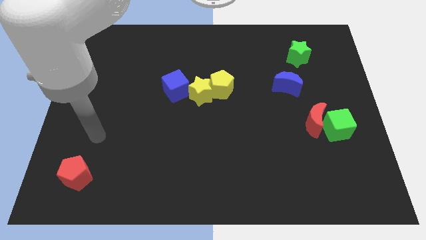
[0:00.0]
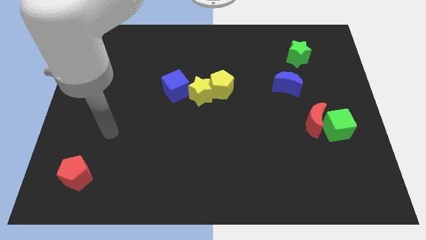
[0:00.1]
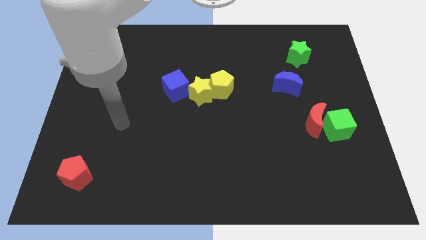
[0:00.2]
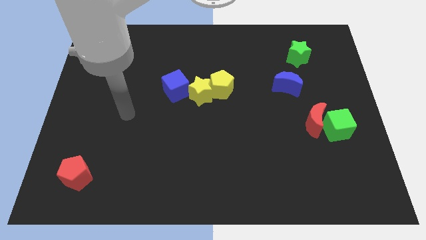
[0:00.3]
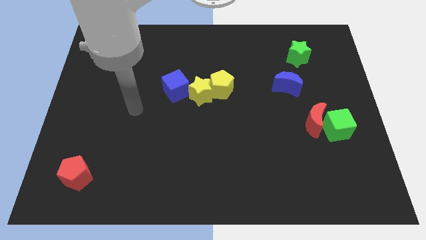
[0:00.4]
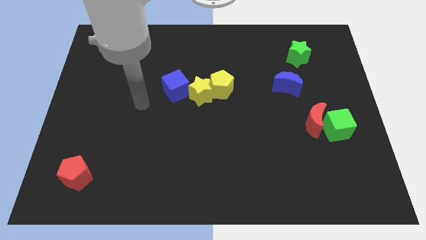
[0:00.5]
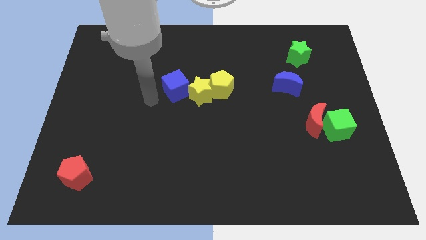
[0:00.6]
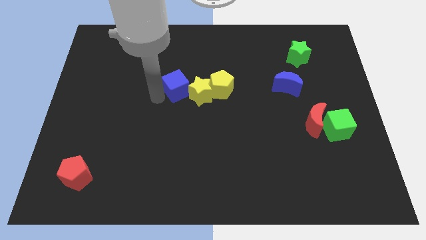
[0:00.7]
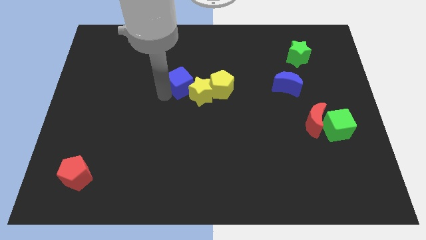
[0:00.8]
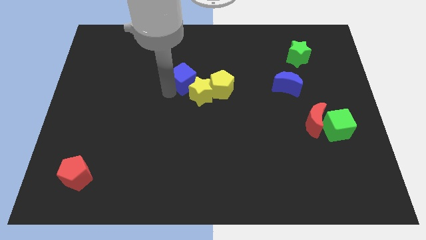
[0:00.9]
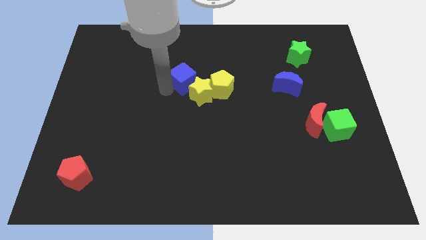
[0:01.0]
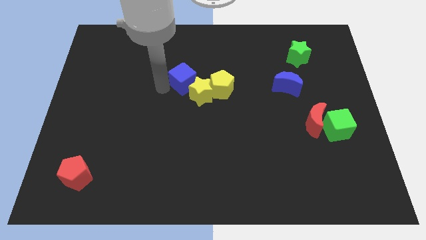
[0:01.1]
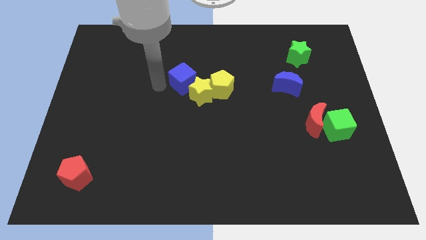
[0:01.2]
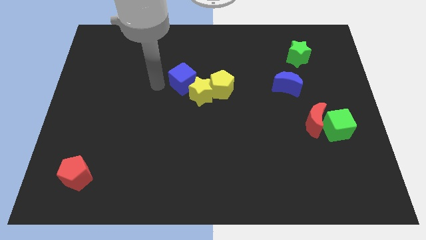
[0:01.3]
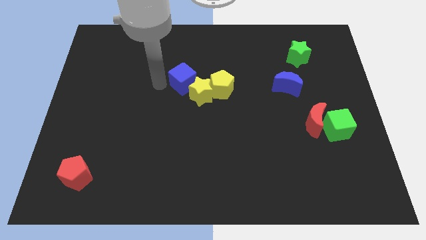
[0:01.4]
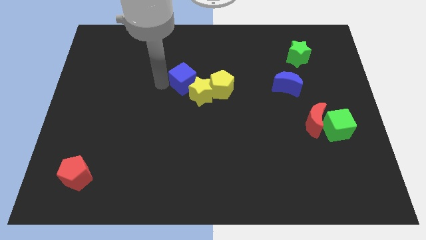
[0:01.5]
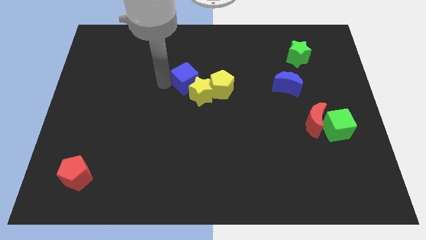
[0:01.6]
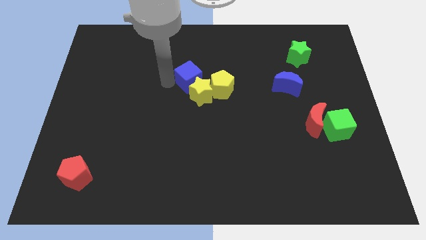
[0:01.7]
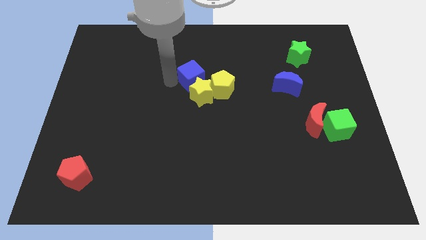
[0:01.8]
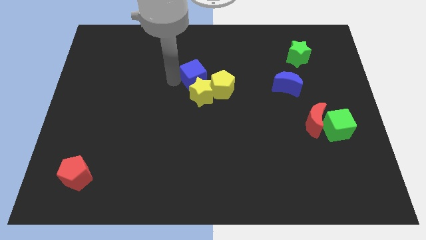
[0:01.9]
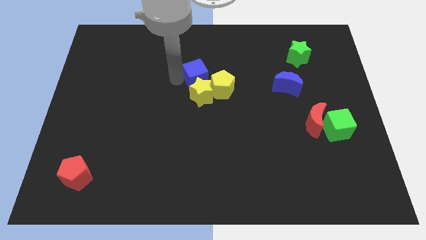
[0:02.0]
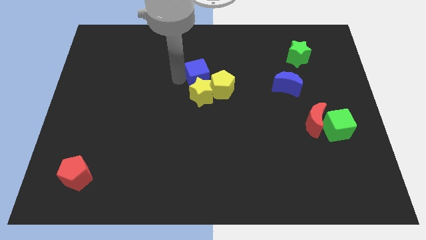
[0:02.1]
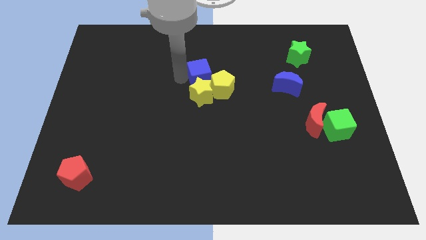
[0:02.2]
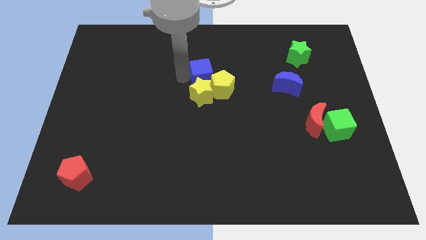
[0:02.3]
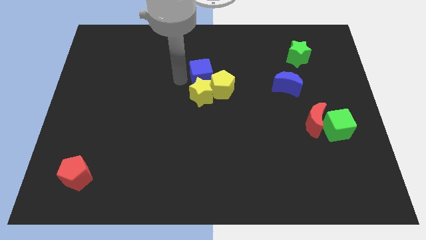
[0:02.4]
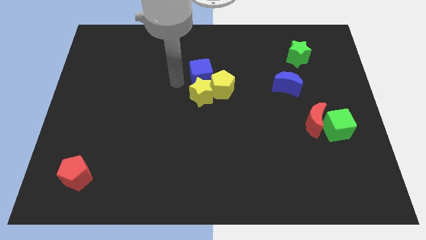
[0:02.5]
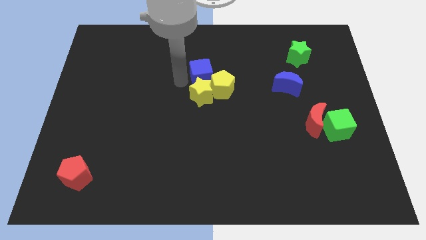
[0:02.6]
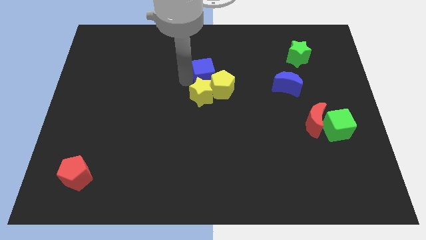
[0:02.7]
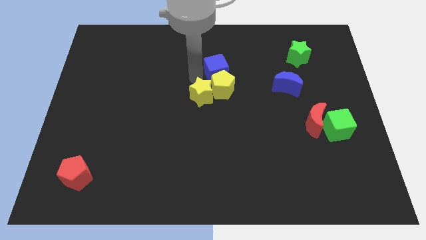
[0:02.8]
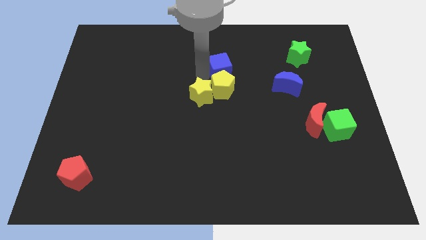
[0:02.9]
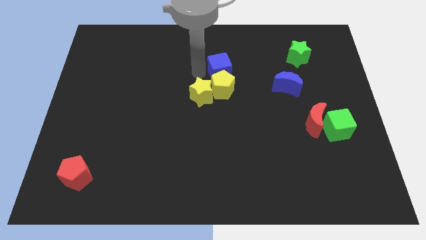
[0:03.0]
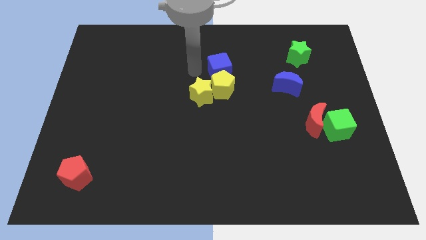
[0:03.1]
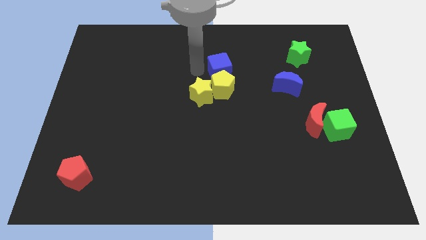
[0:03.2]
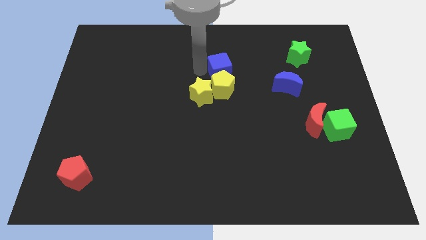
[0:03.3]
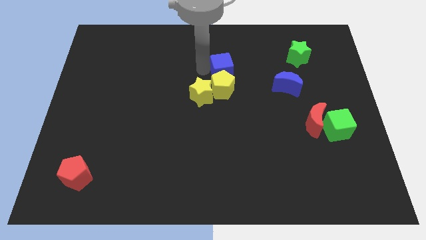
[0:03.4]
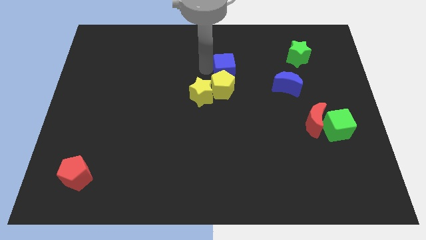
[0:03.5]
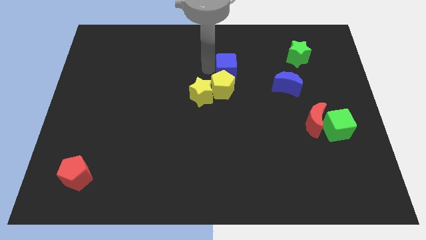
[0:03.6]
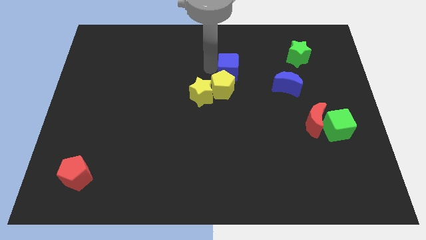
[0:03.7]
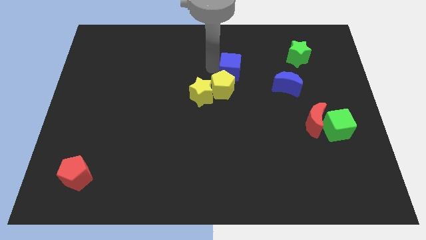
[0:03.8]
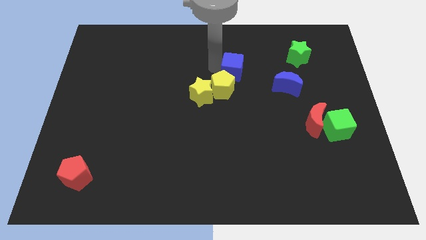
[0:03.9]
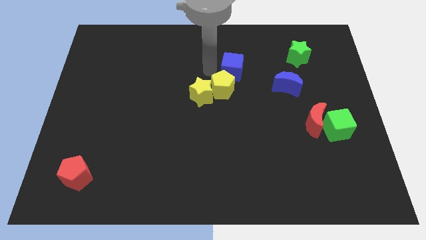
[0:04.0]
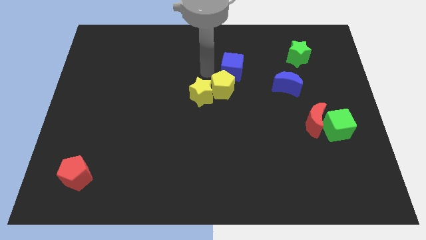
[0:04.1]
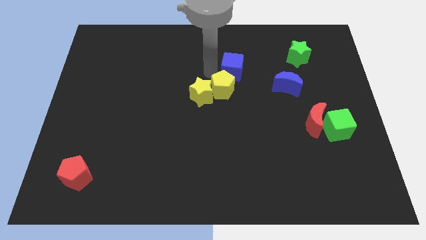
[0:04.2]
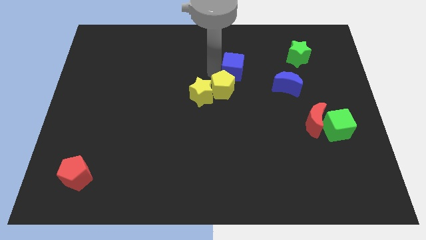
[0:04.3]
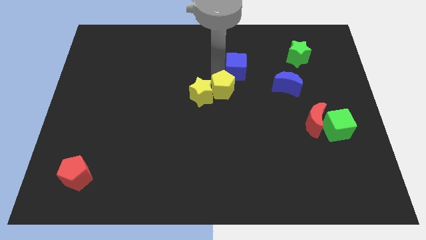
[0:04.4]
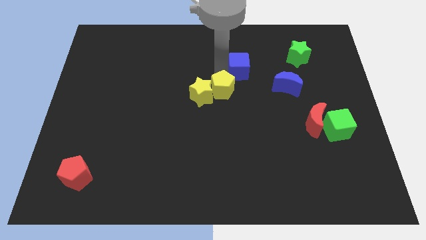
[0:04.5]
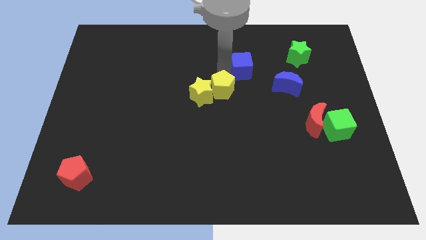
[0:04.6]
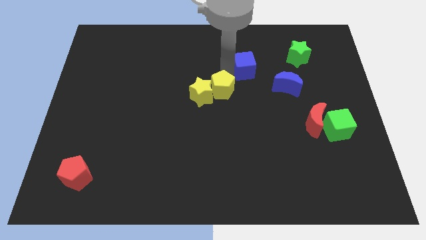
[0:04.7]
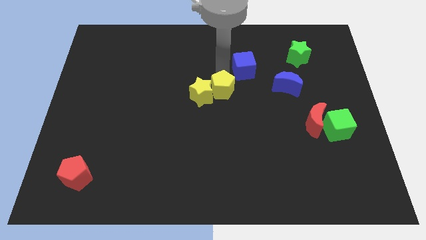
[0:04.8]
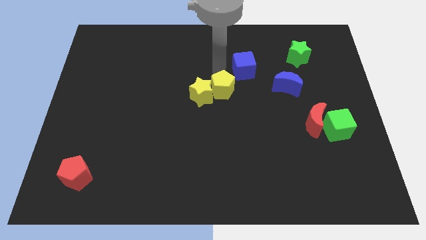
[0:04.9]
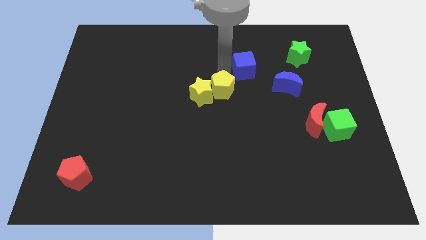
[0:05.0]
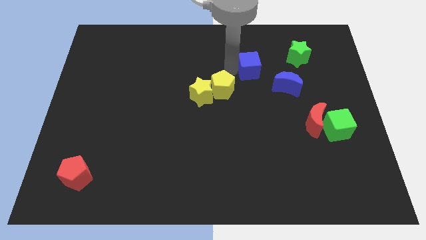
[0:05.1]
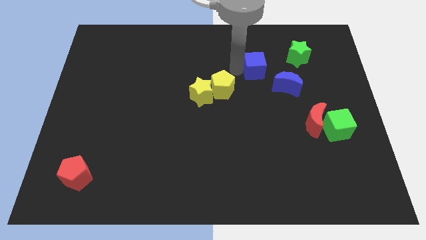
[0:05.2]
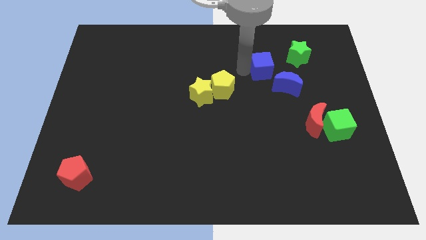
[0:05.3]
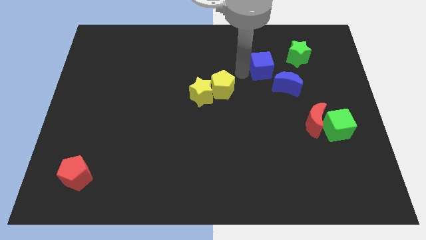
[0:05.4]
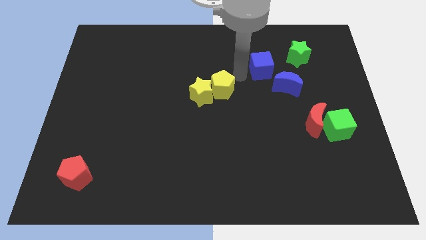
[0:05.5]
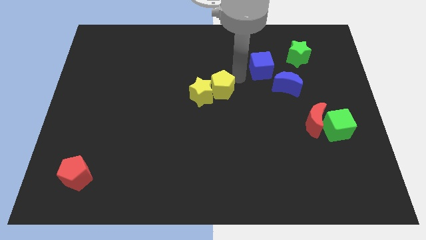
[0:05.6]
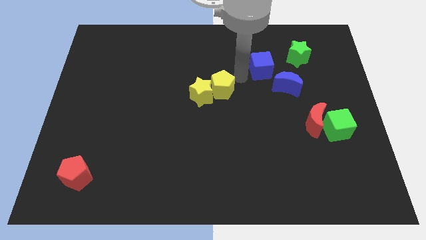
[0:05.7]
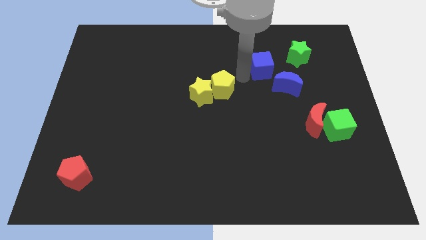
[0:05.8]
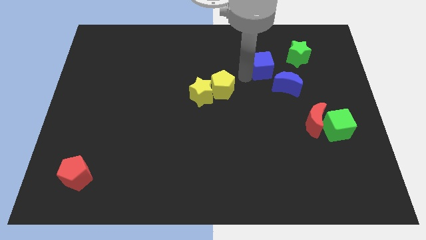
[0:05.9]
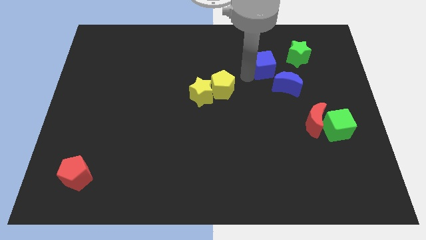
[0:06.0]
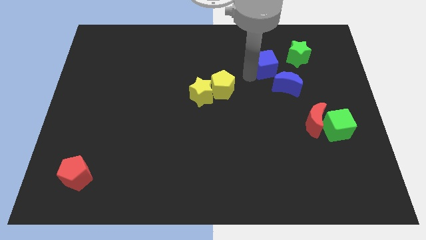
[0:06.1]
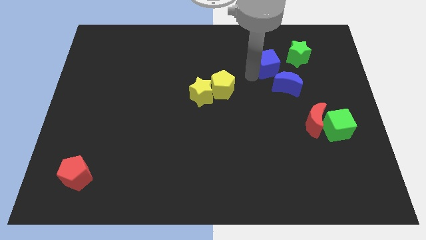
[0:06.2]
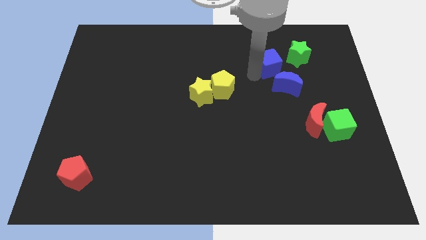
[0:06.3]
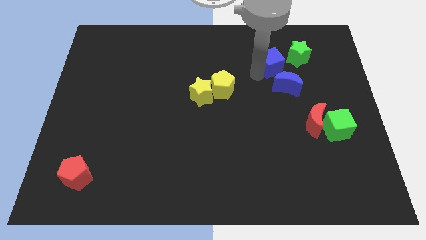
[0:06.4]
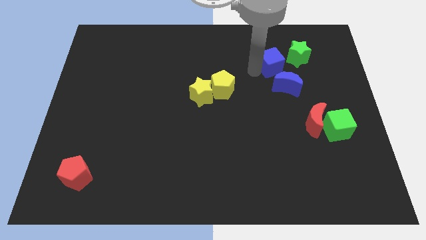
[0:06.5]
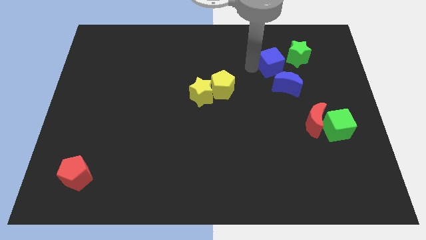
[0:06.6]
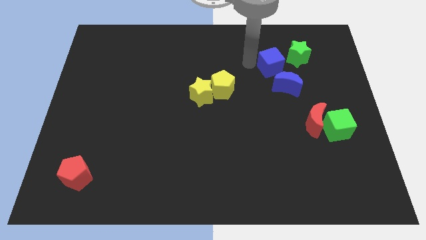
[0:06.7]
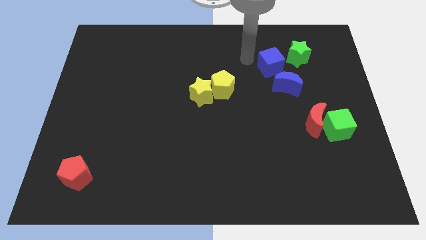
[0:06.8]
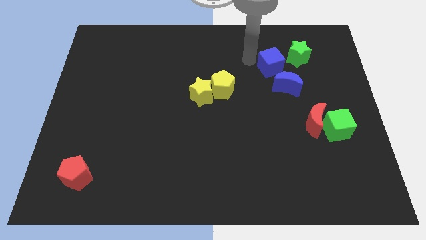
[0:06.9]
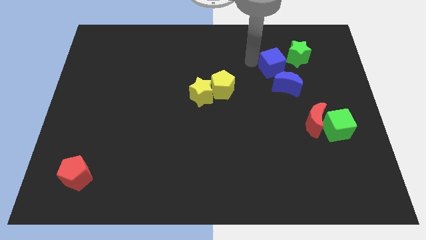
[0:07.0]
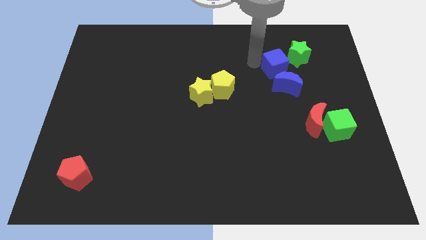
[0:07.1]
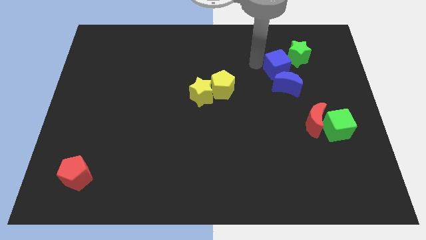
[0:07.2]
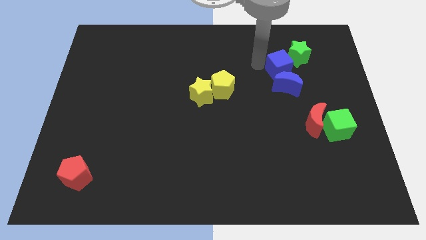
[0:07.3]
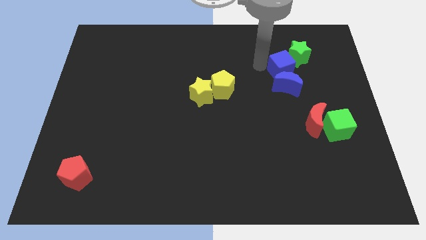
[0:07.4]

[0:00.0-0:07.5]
put the blue cube diagonally up and to the right of the blue moon
